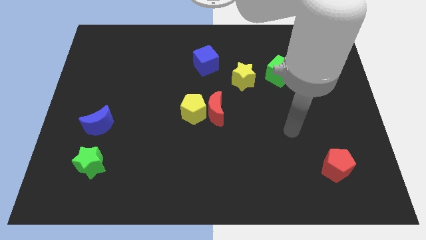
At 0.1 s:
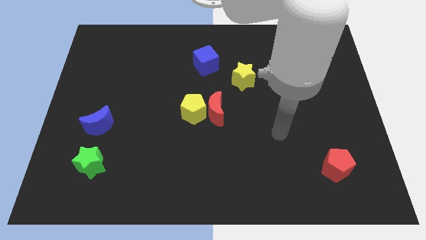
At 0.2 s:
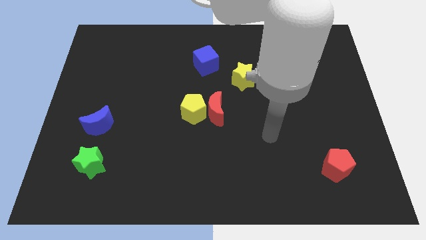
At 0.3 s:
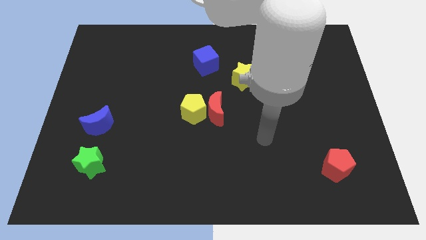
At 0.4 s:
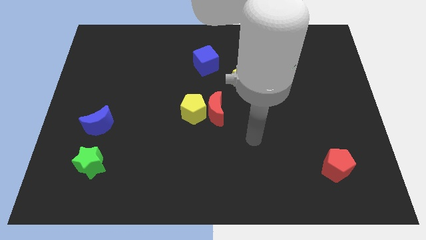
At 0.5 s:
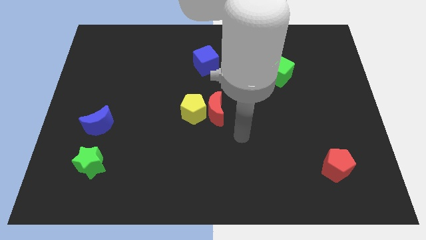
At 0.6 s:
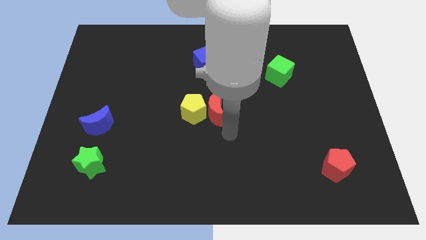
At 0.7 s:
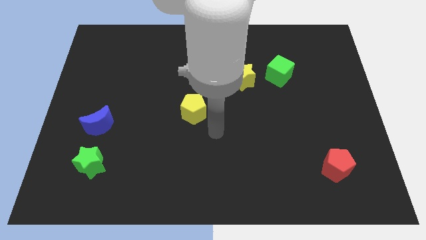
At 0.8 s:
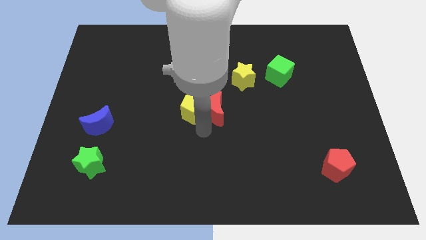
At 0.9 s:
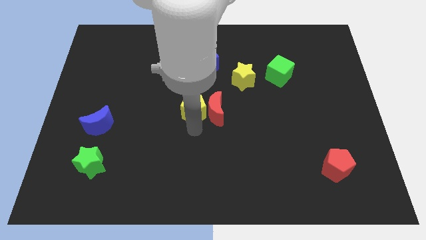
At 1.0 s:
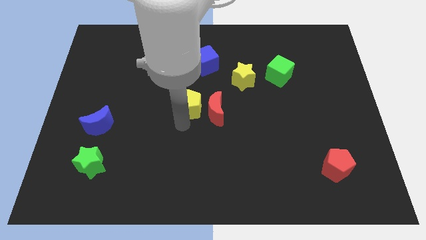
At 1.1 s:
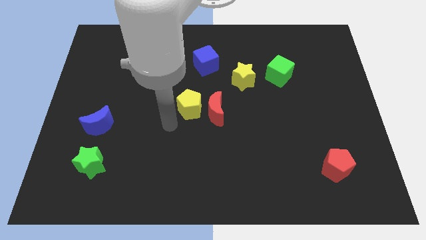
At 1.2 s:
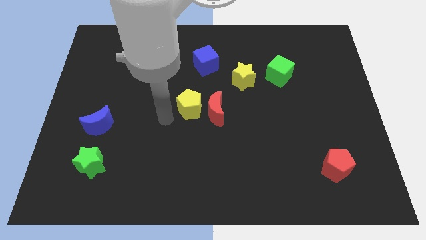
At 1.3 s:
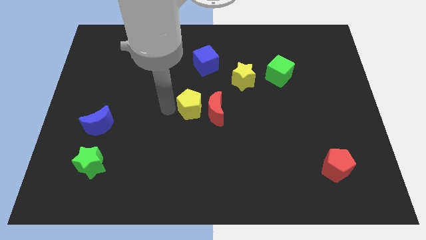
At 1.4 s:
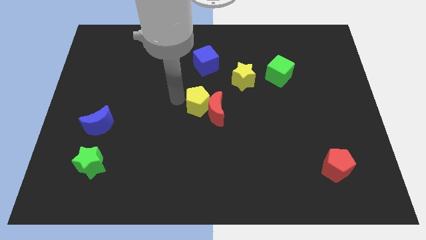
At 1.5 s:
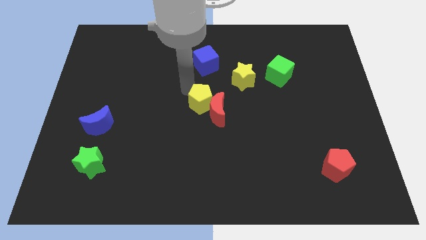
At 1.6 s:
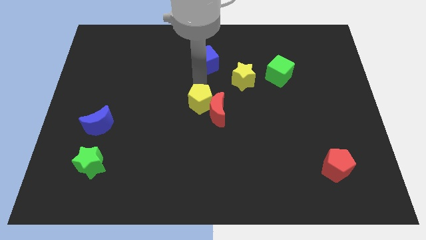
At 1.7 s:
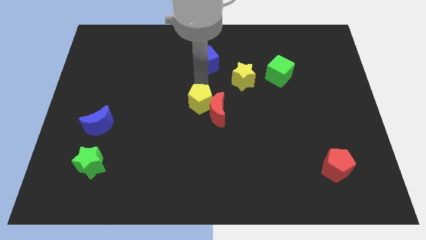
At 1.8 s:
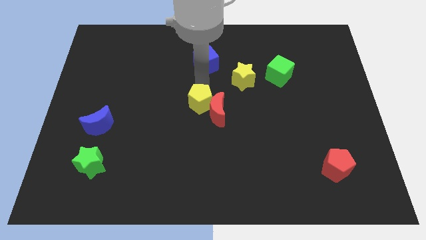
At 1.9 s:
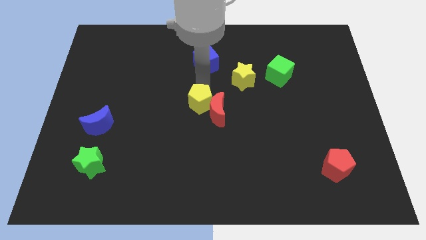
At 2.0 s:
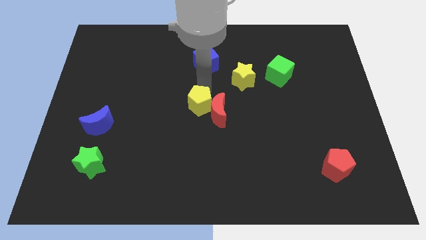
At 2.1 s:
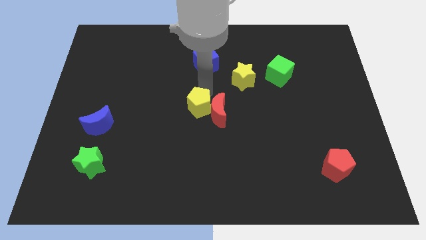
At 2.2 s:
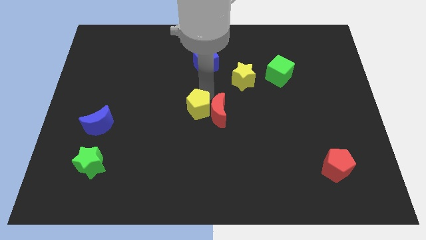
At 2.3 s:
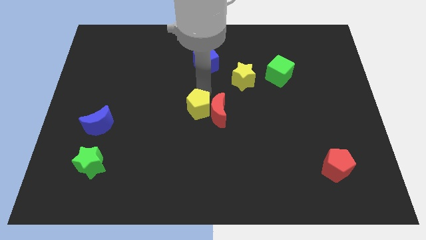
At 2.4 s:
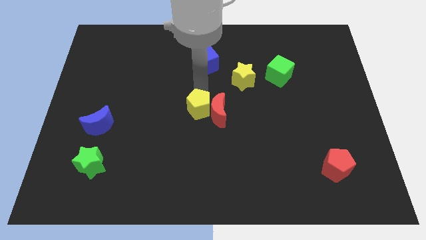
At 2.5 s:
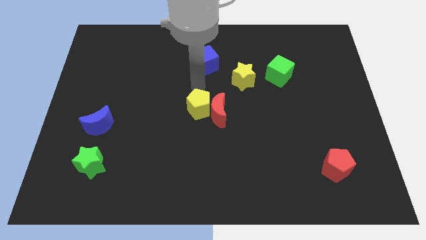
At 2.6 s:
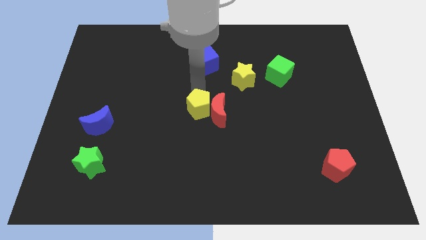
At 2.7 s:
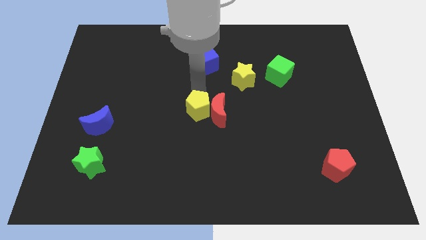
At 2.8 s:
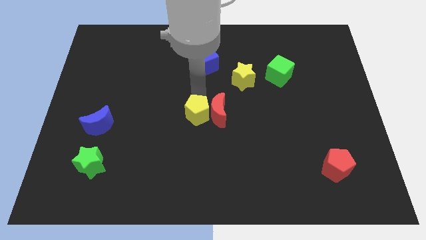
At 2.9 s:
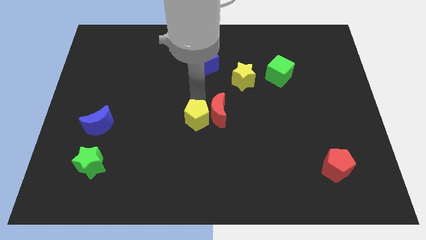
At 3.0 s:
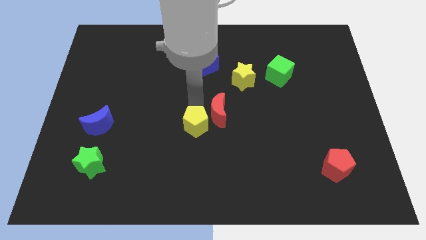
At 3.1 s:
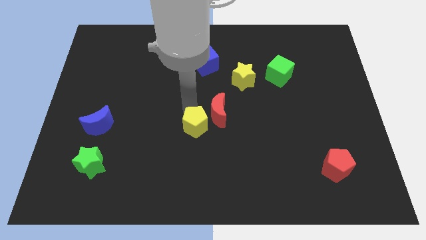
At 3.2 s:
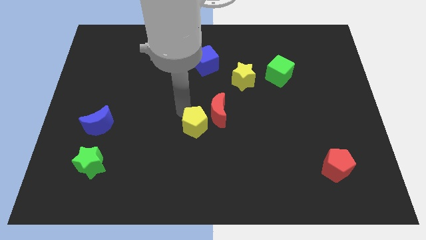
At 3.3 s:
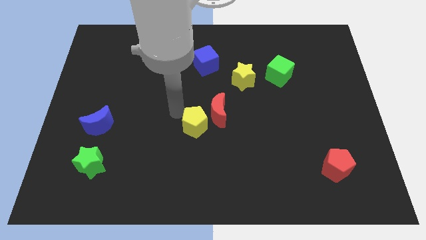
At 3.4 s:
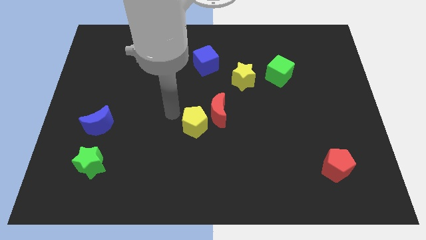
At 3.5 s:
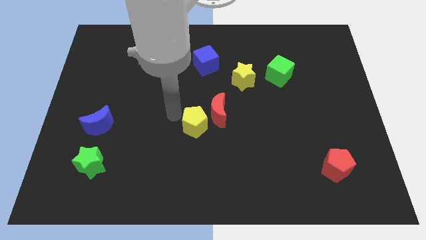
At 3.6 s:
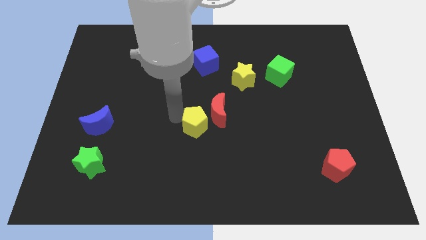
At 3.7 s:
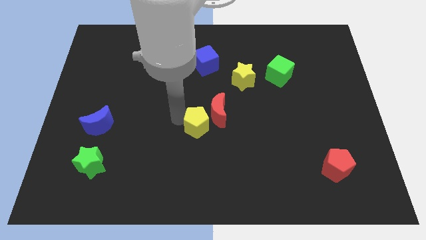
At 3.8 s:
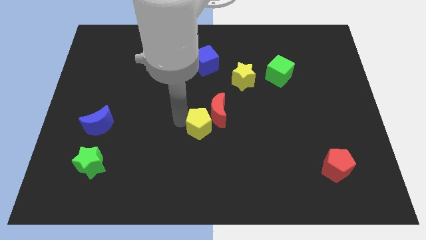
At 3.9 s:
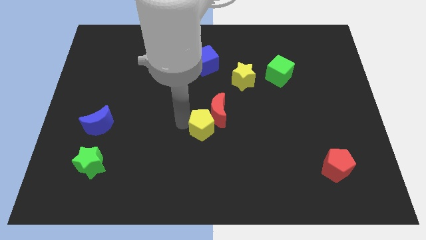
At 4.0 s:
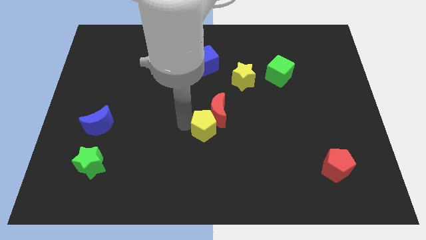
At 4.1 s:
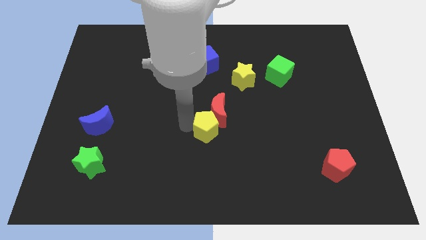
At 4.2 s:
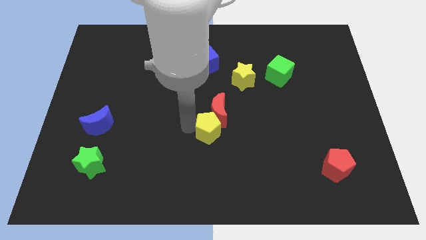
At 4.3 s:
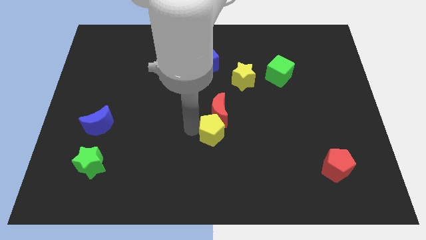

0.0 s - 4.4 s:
slightly move the yellow pentagon downwards and then right

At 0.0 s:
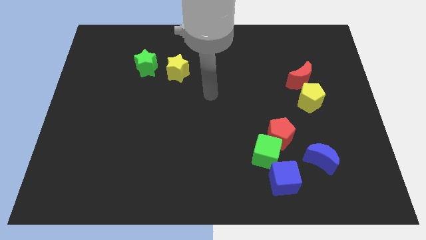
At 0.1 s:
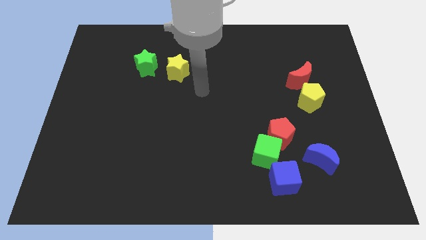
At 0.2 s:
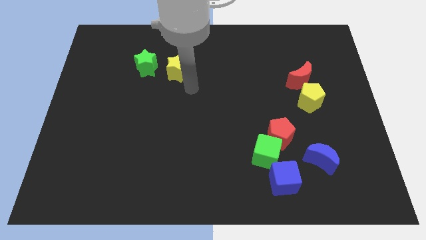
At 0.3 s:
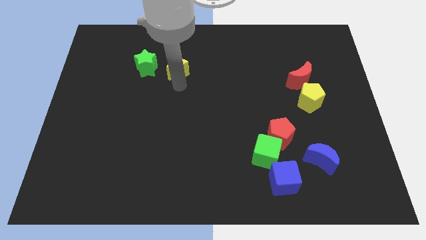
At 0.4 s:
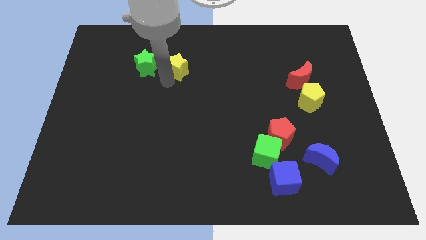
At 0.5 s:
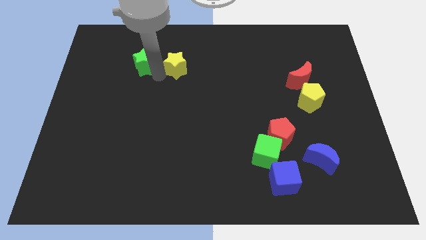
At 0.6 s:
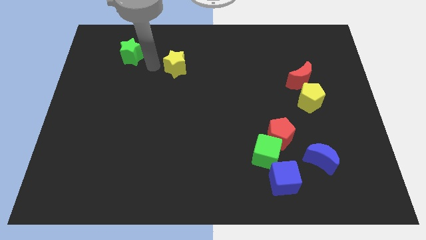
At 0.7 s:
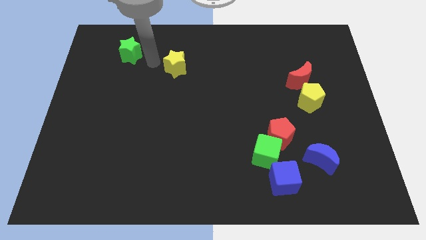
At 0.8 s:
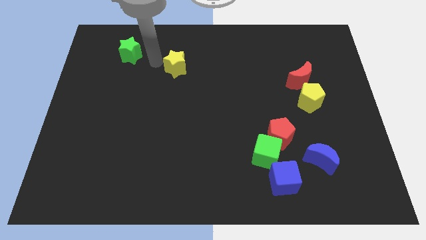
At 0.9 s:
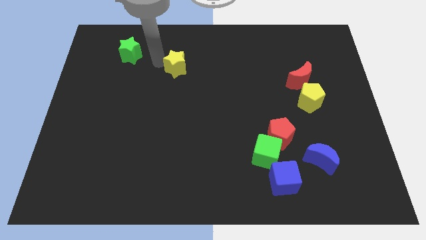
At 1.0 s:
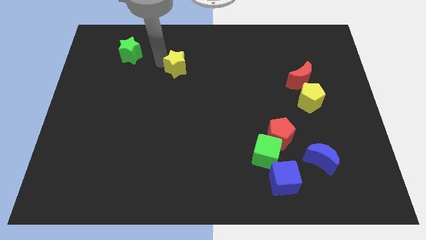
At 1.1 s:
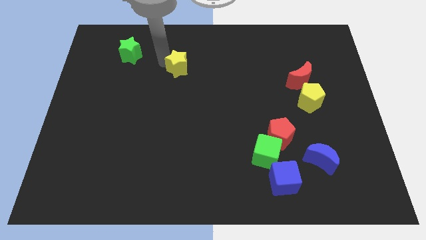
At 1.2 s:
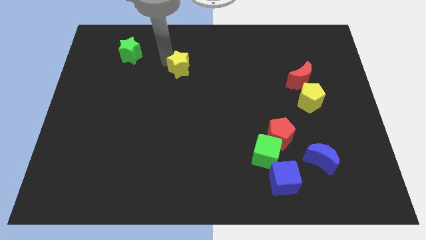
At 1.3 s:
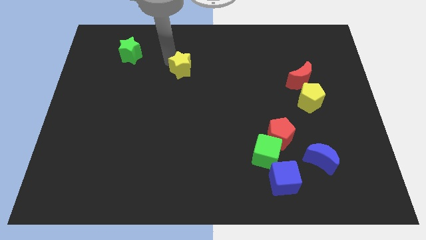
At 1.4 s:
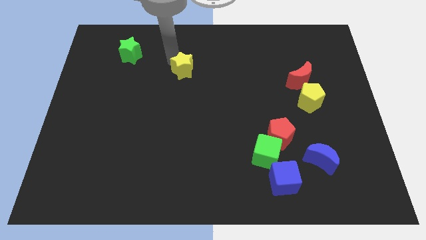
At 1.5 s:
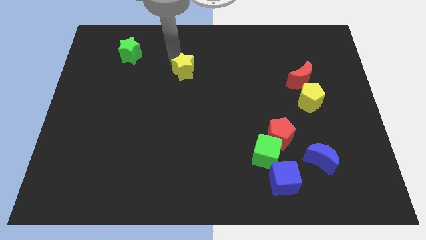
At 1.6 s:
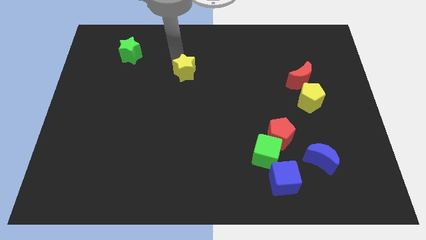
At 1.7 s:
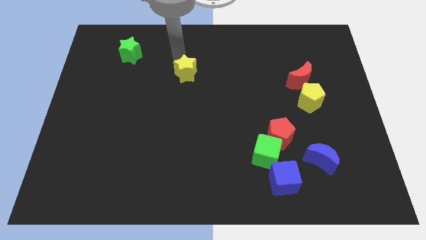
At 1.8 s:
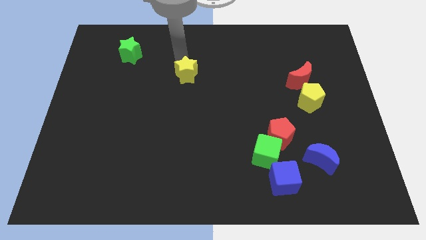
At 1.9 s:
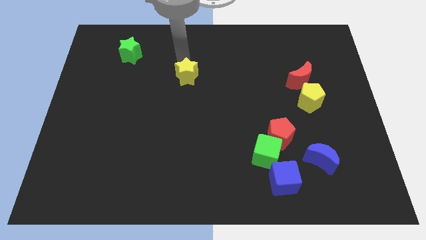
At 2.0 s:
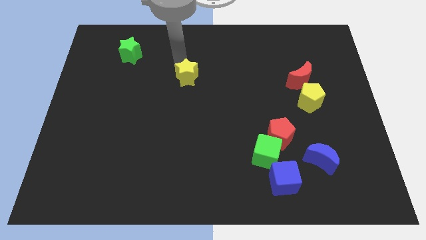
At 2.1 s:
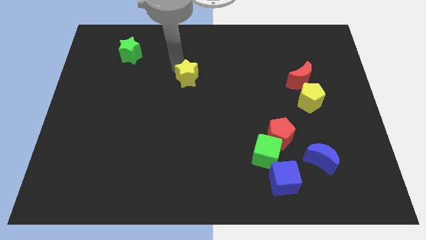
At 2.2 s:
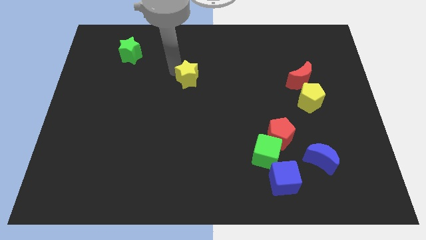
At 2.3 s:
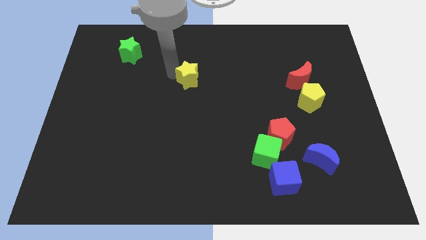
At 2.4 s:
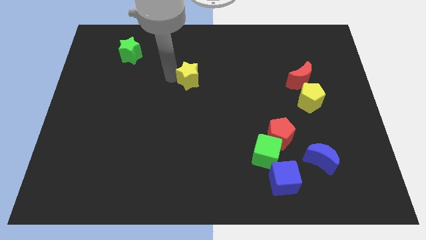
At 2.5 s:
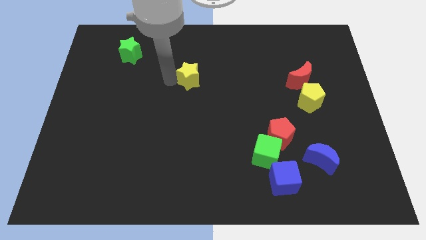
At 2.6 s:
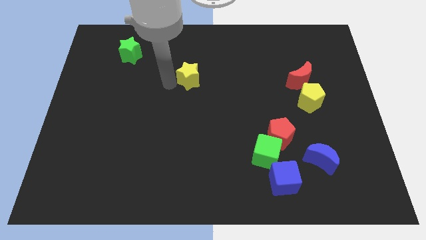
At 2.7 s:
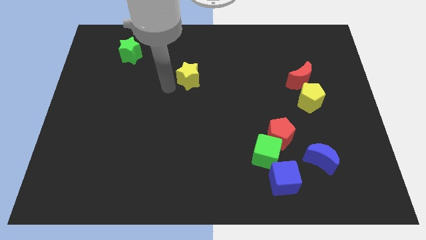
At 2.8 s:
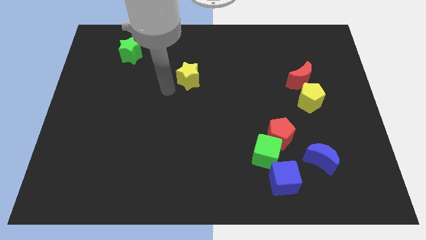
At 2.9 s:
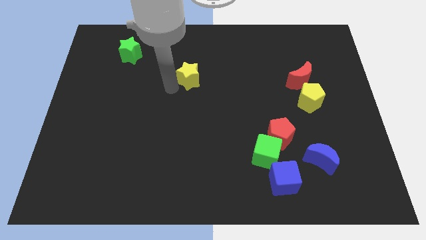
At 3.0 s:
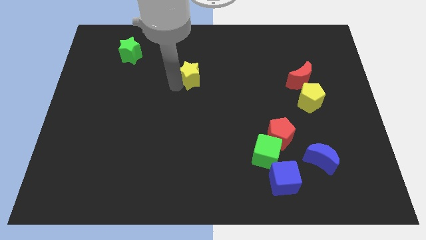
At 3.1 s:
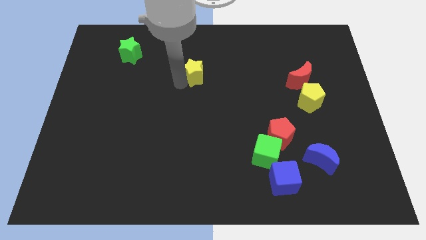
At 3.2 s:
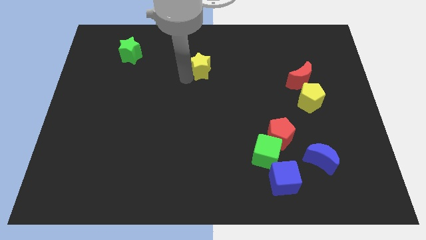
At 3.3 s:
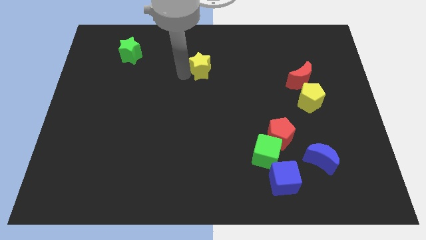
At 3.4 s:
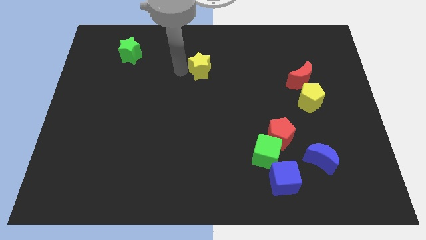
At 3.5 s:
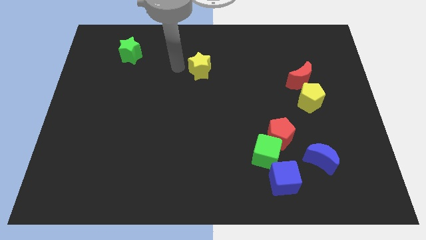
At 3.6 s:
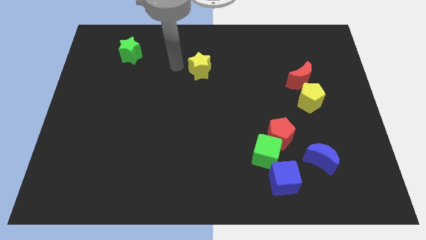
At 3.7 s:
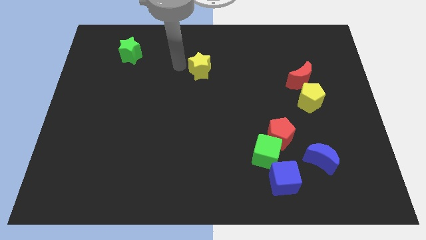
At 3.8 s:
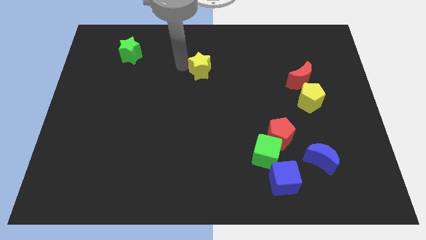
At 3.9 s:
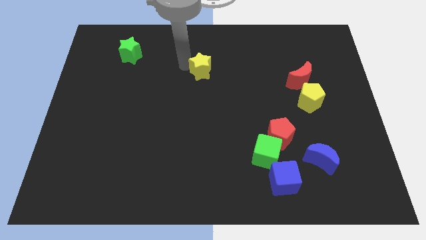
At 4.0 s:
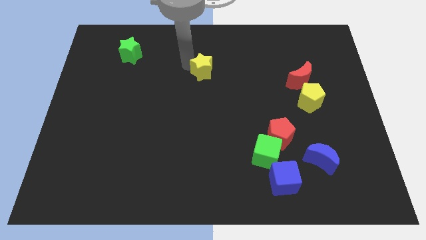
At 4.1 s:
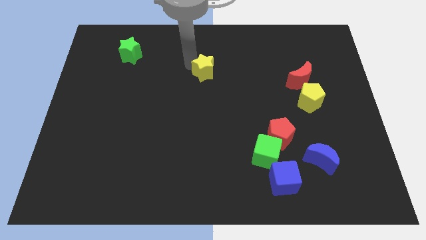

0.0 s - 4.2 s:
push the yellow star a bit right
